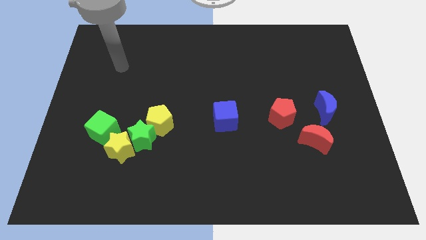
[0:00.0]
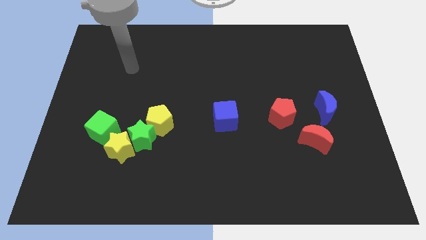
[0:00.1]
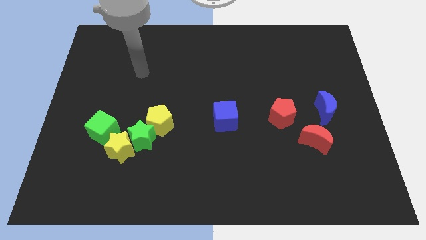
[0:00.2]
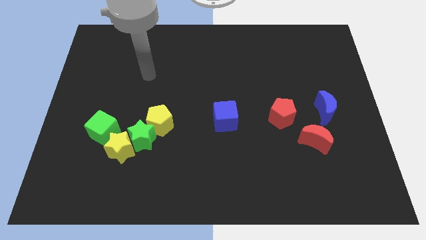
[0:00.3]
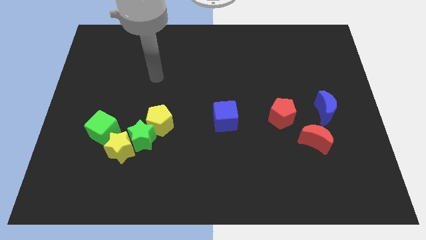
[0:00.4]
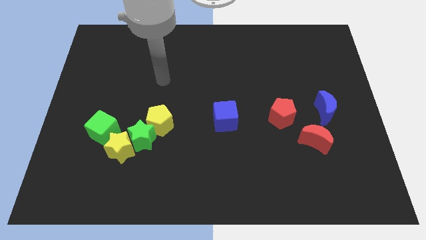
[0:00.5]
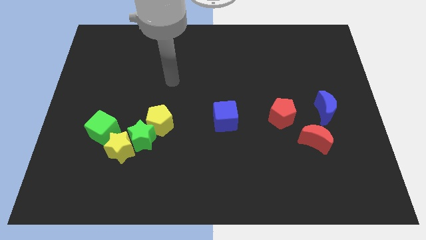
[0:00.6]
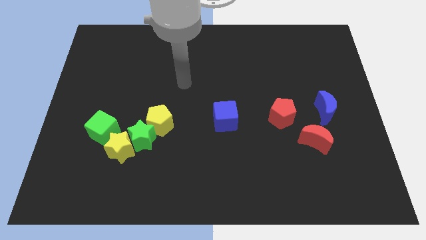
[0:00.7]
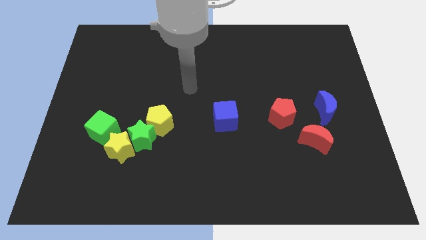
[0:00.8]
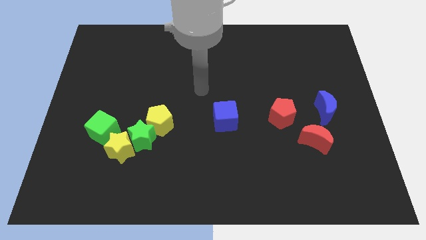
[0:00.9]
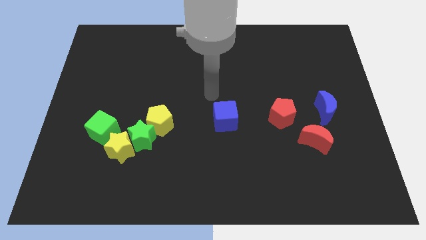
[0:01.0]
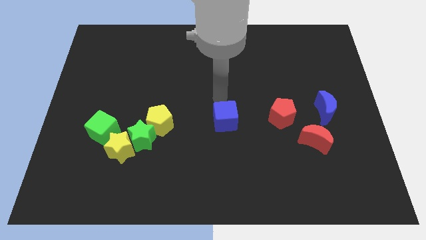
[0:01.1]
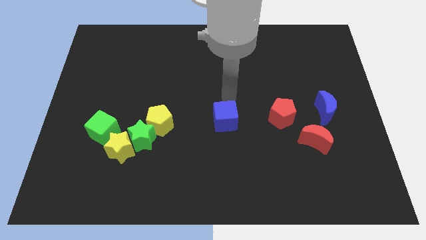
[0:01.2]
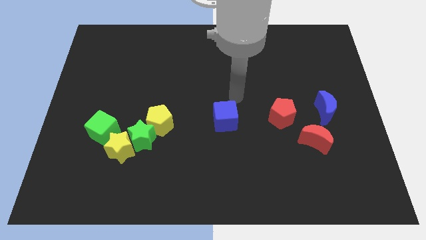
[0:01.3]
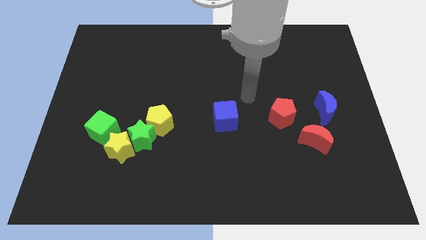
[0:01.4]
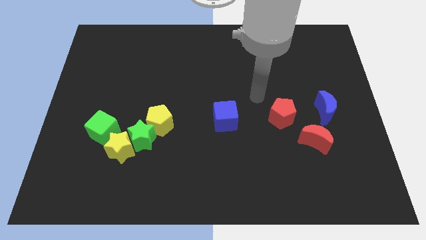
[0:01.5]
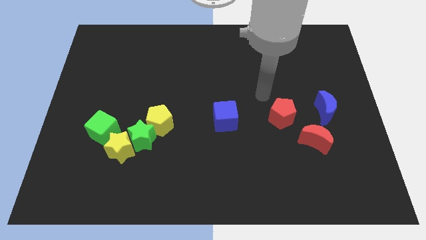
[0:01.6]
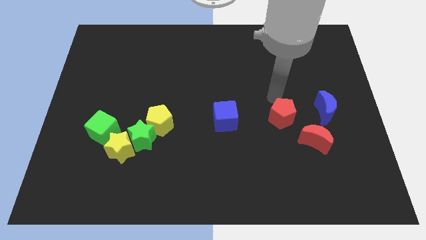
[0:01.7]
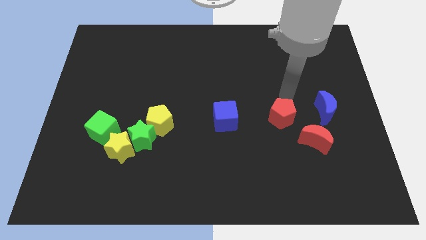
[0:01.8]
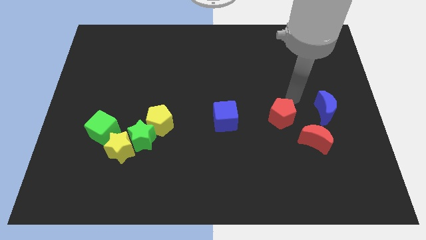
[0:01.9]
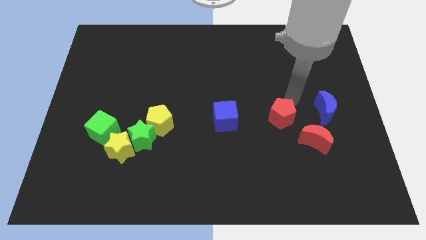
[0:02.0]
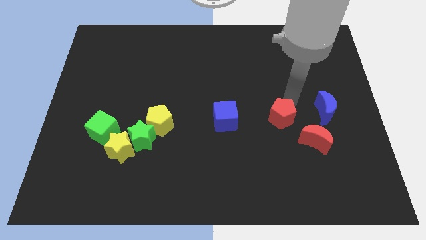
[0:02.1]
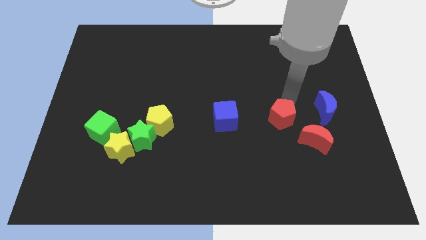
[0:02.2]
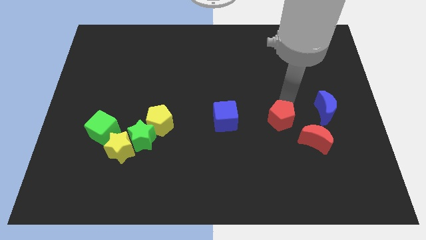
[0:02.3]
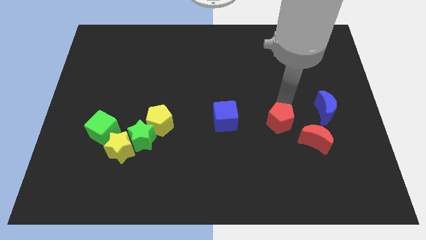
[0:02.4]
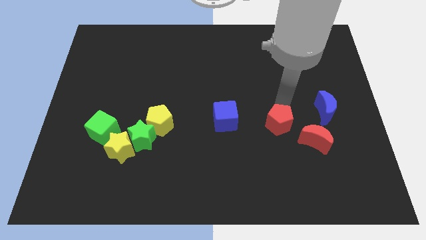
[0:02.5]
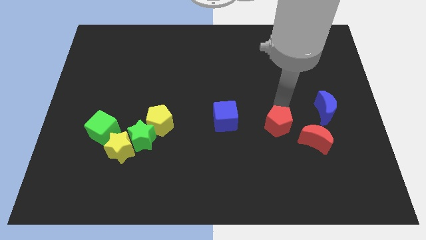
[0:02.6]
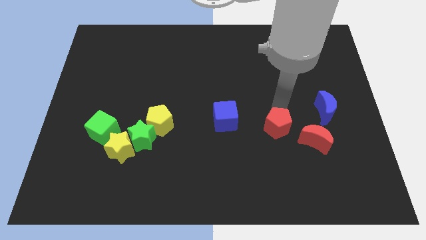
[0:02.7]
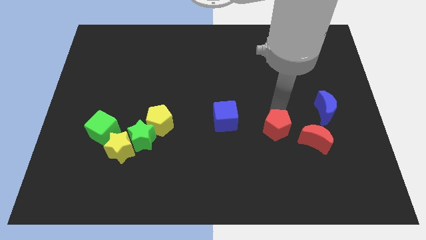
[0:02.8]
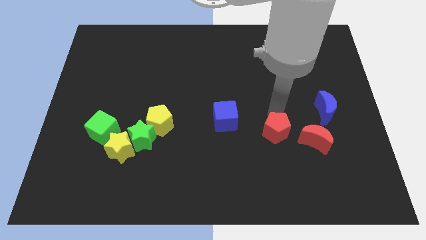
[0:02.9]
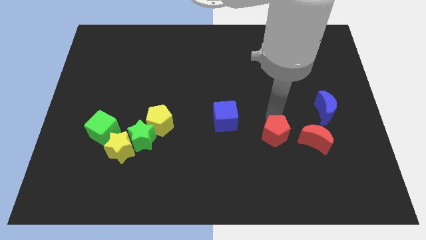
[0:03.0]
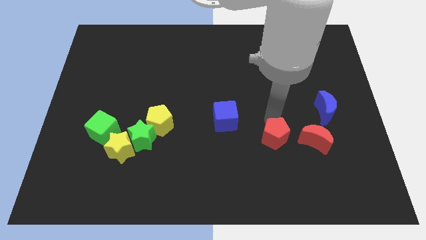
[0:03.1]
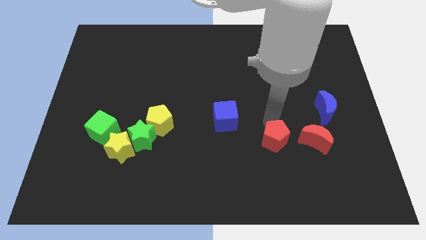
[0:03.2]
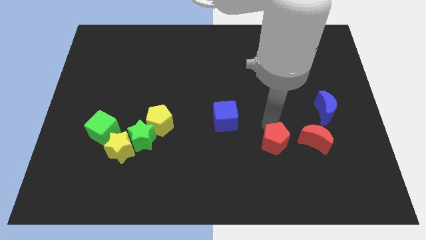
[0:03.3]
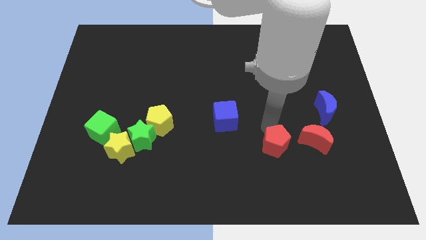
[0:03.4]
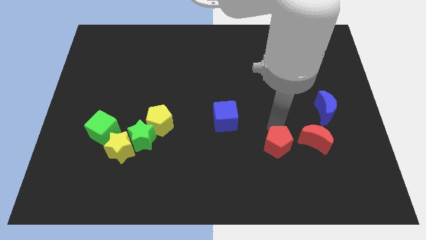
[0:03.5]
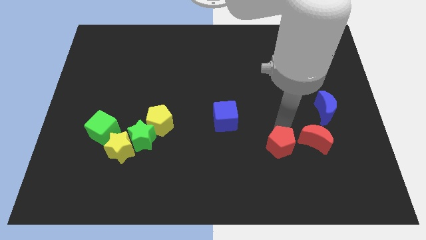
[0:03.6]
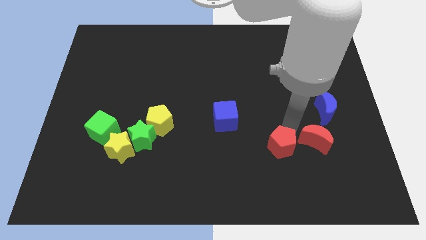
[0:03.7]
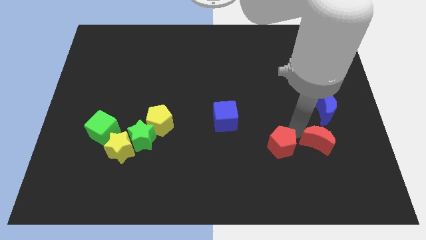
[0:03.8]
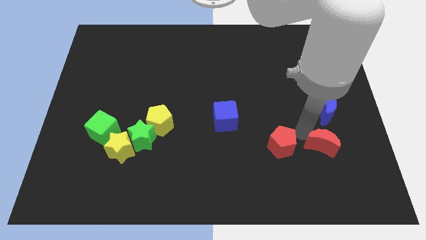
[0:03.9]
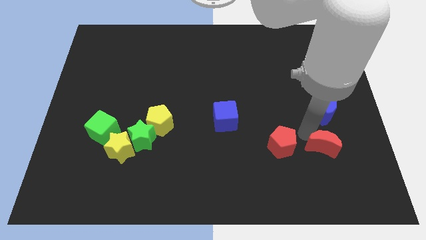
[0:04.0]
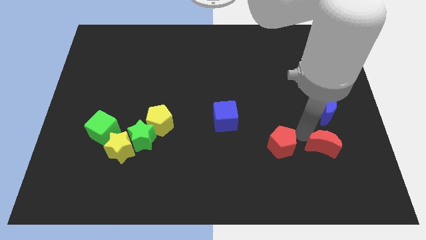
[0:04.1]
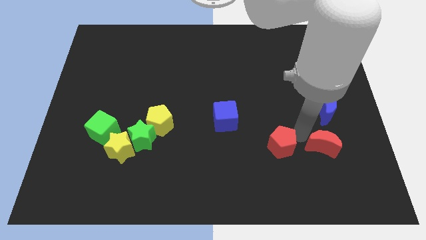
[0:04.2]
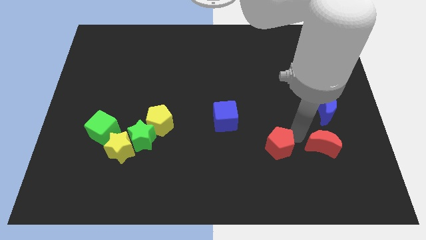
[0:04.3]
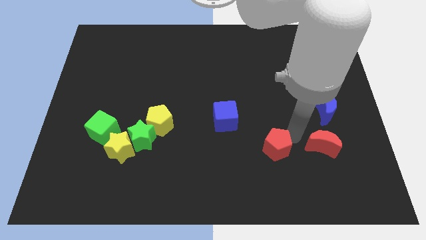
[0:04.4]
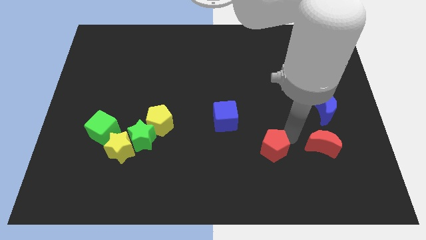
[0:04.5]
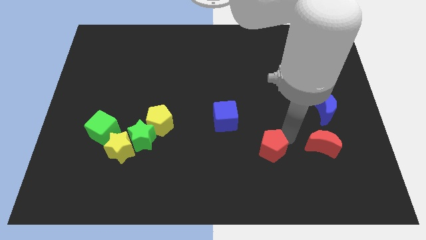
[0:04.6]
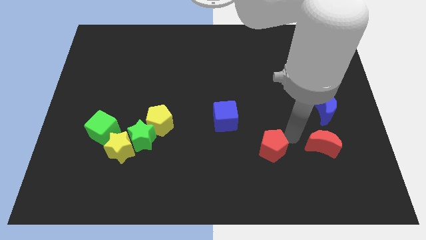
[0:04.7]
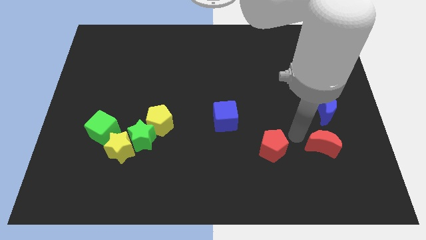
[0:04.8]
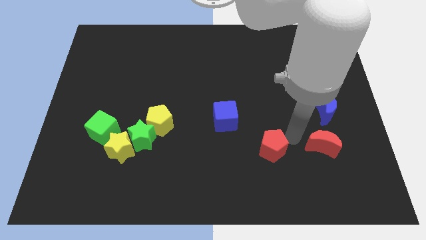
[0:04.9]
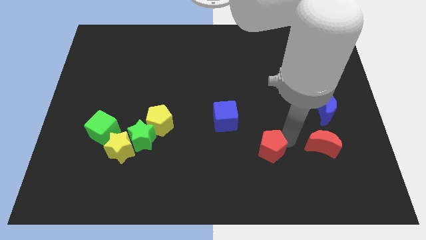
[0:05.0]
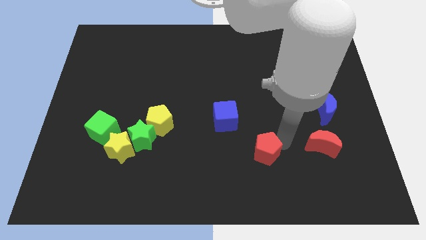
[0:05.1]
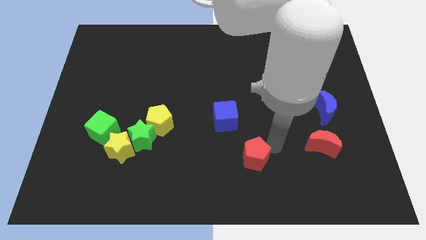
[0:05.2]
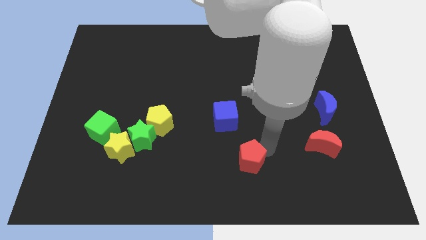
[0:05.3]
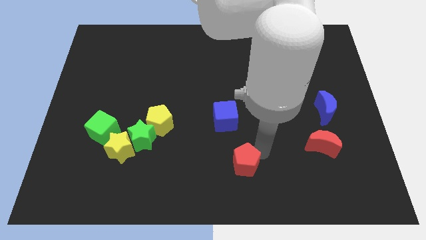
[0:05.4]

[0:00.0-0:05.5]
put the red pentagon to the bottom

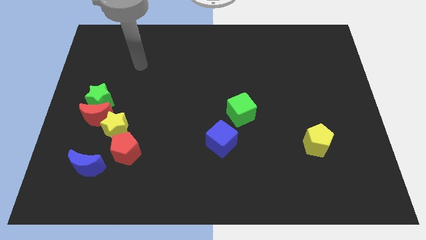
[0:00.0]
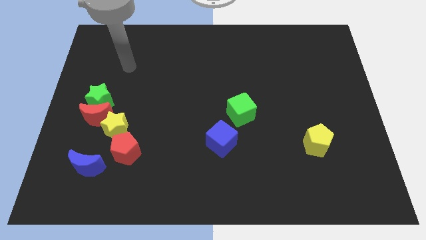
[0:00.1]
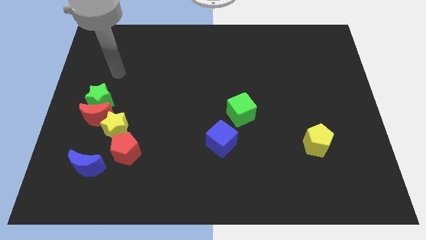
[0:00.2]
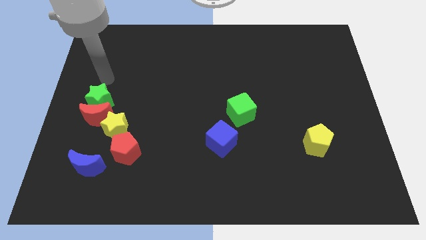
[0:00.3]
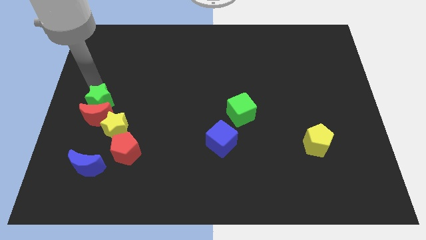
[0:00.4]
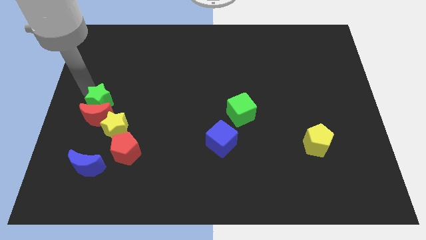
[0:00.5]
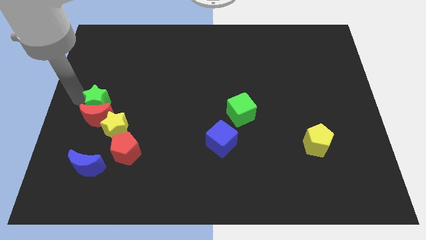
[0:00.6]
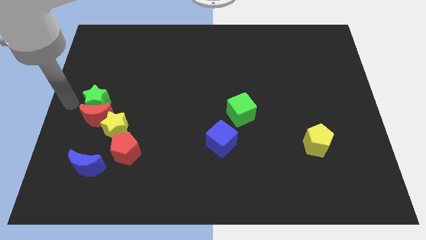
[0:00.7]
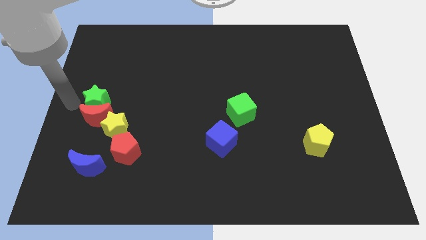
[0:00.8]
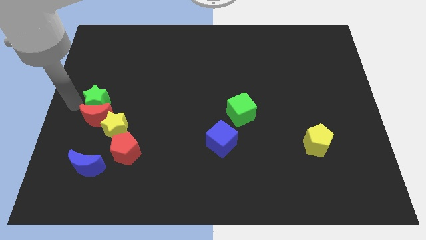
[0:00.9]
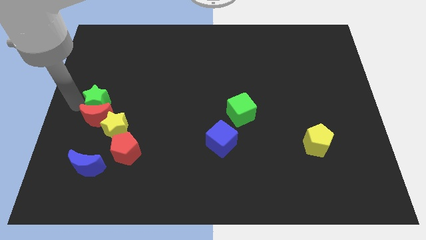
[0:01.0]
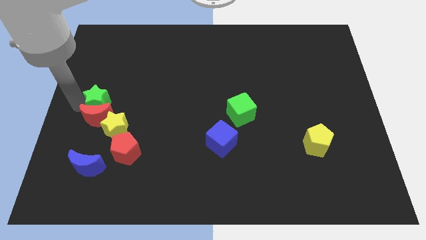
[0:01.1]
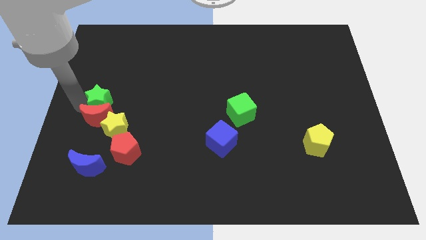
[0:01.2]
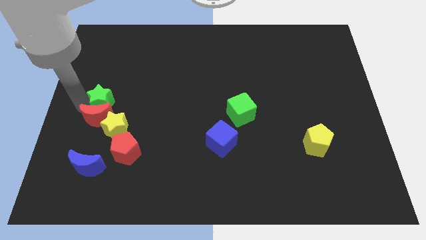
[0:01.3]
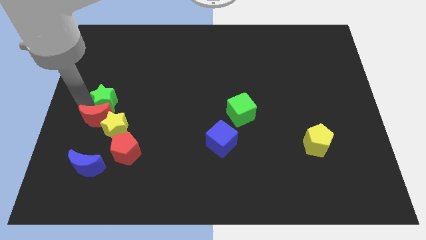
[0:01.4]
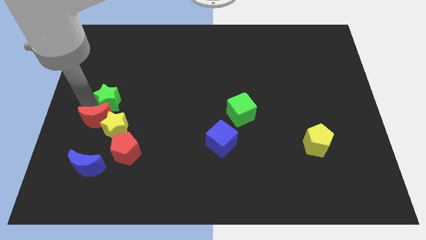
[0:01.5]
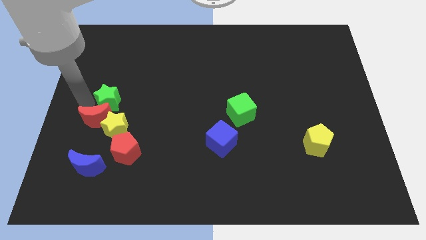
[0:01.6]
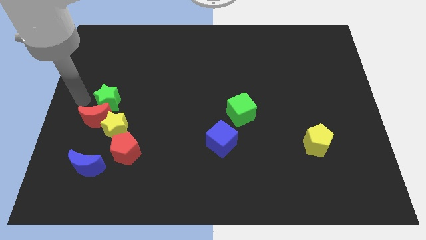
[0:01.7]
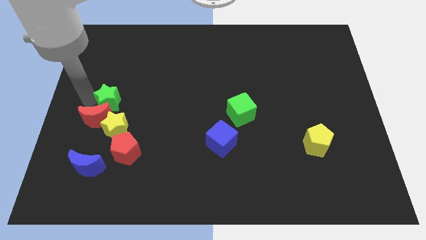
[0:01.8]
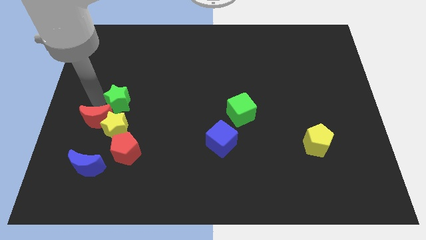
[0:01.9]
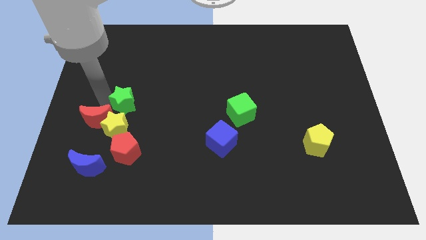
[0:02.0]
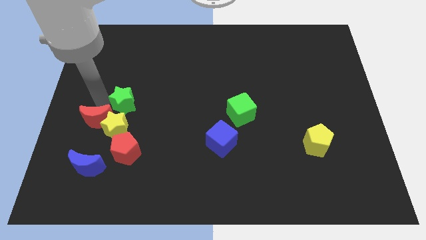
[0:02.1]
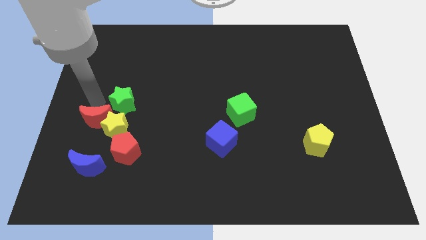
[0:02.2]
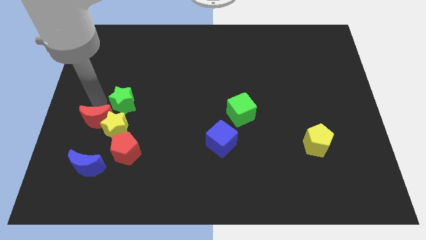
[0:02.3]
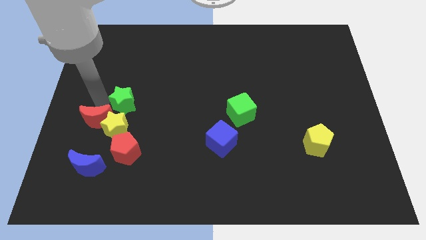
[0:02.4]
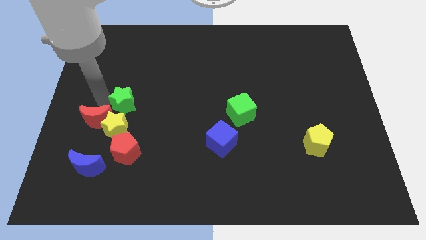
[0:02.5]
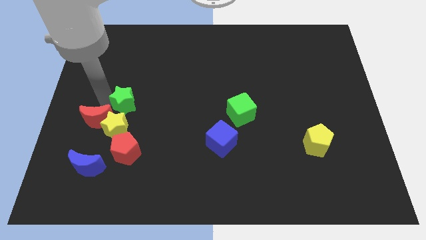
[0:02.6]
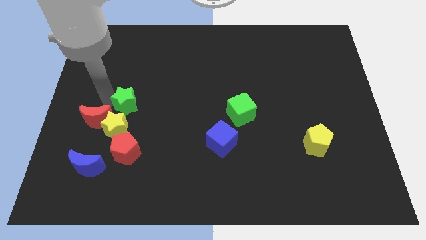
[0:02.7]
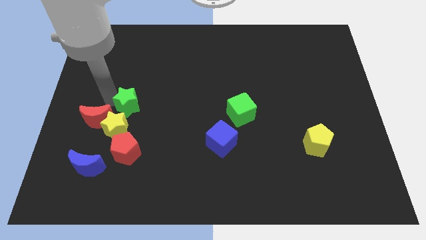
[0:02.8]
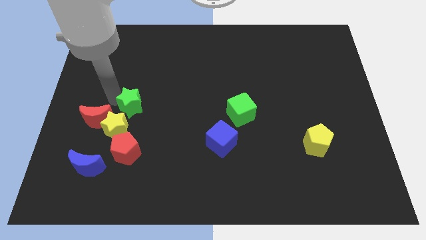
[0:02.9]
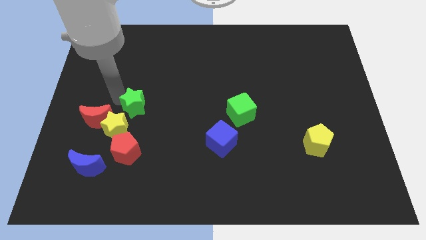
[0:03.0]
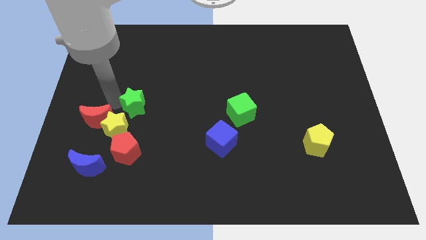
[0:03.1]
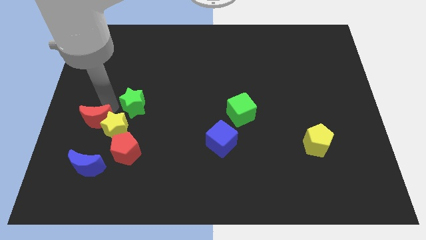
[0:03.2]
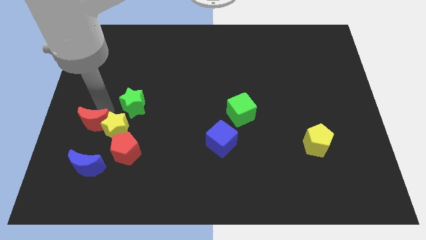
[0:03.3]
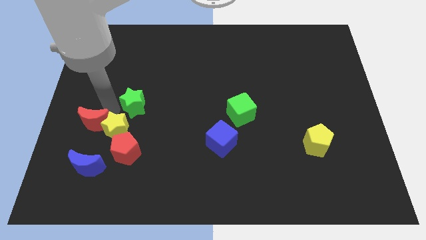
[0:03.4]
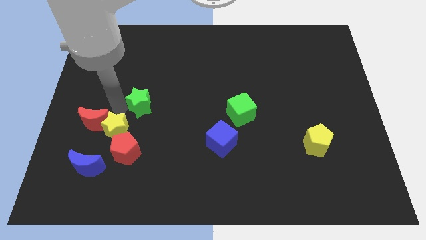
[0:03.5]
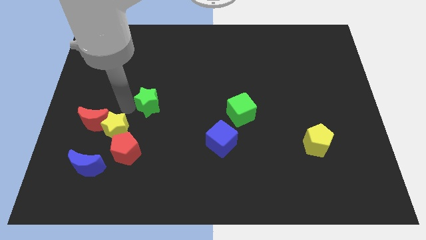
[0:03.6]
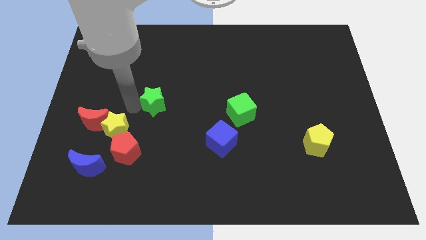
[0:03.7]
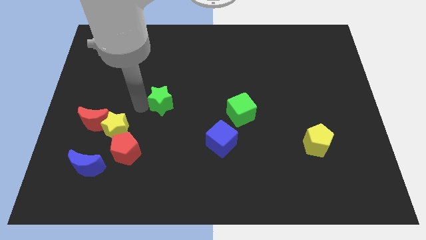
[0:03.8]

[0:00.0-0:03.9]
slide the green star to the center
